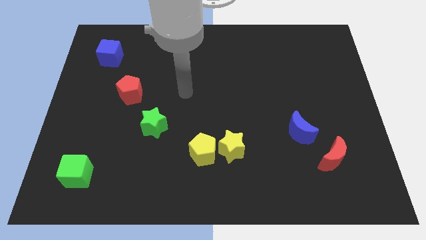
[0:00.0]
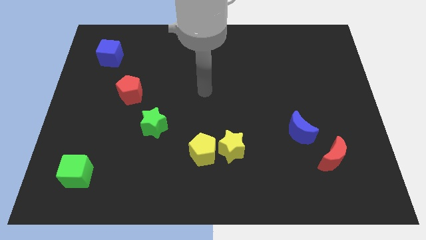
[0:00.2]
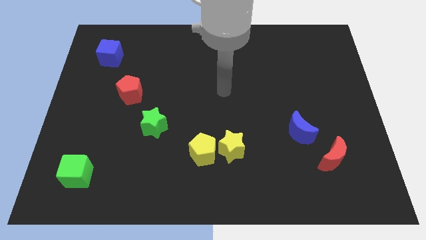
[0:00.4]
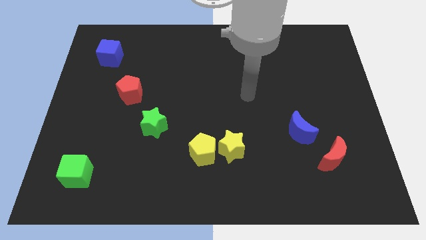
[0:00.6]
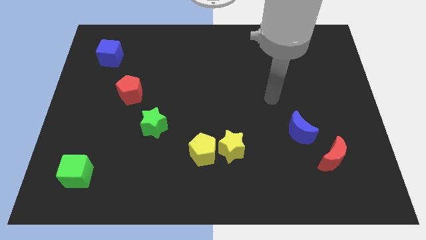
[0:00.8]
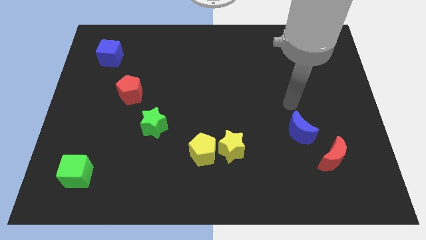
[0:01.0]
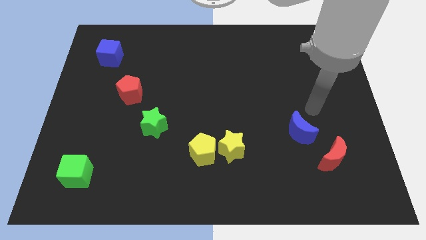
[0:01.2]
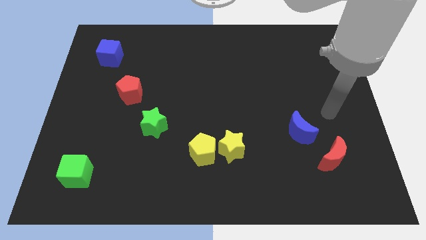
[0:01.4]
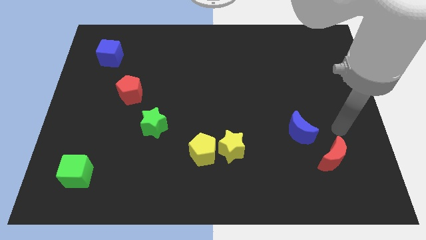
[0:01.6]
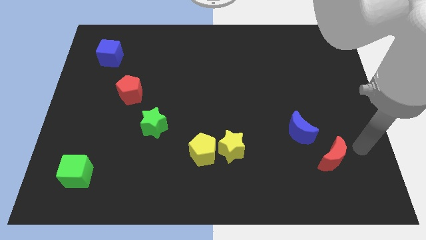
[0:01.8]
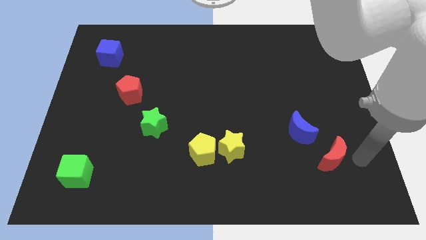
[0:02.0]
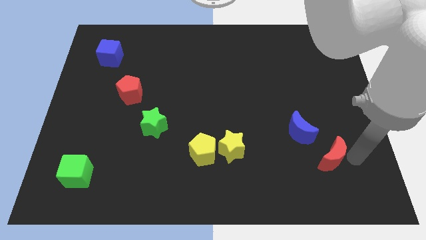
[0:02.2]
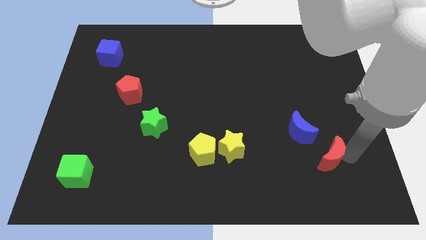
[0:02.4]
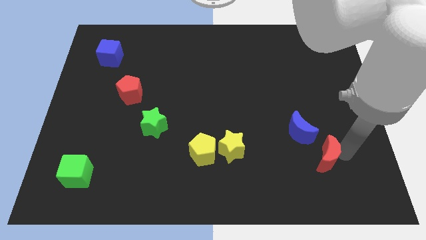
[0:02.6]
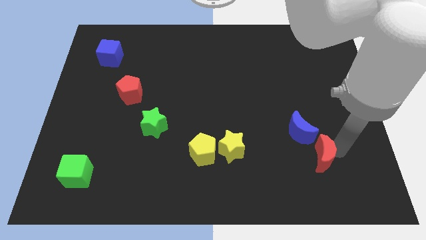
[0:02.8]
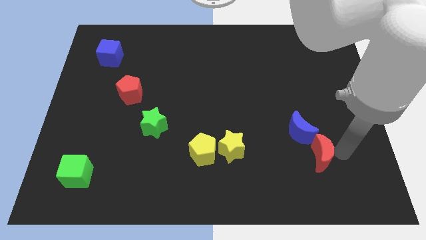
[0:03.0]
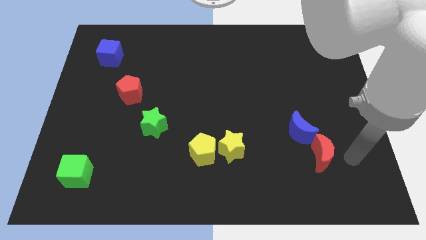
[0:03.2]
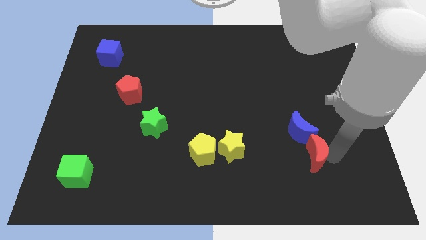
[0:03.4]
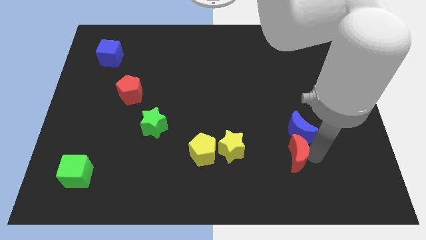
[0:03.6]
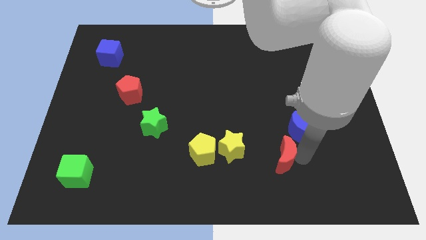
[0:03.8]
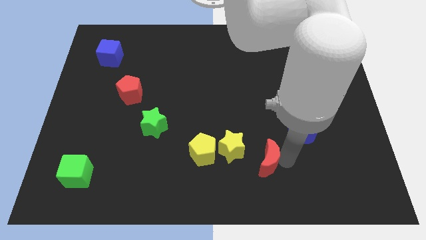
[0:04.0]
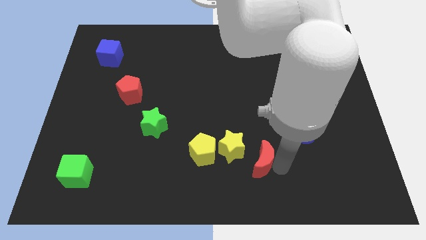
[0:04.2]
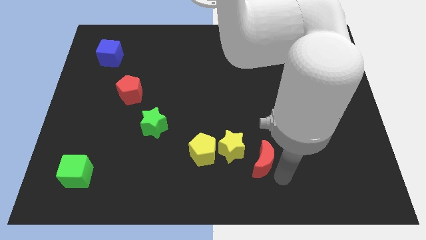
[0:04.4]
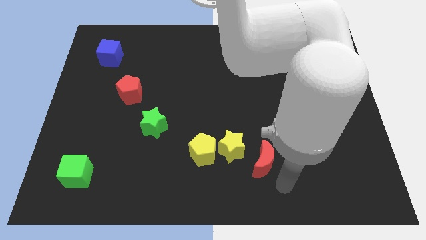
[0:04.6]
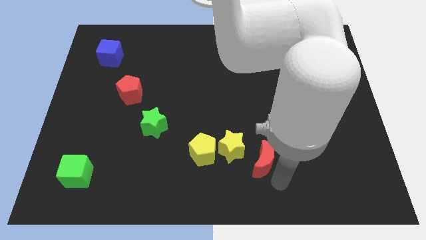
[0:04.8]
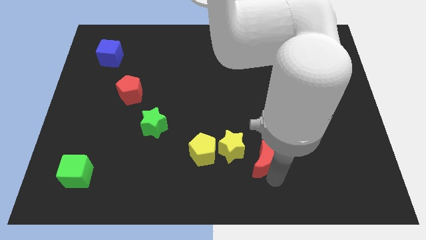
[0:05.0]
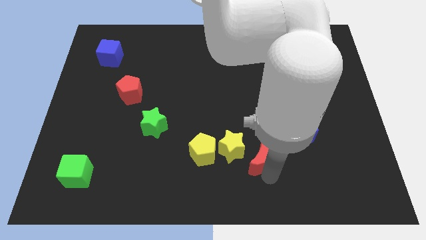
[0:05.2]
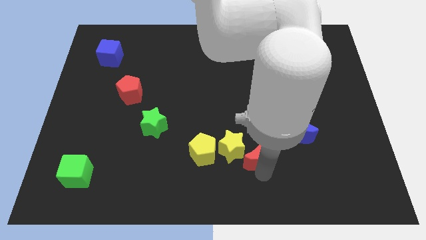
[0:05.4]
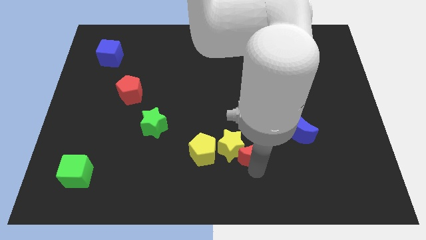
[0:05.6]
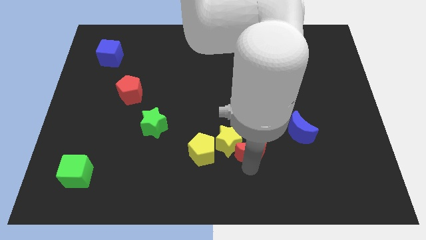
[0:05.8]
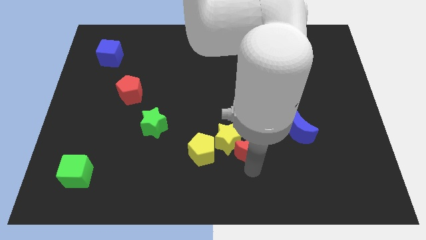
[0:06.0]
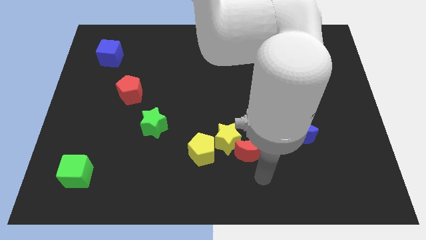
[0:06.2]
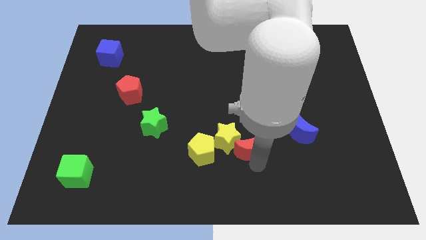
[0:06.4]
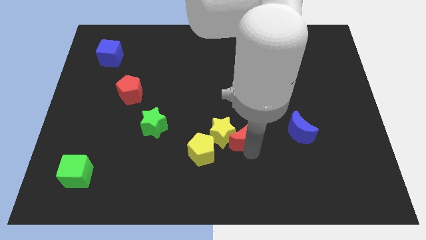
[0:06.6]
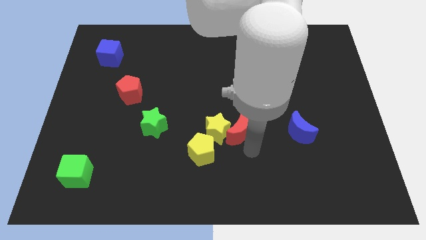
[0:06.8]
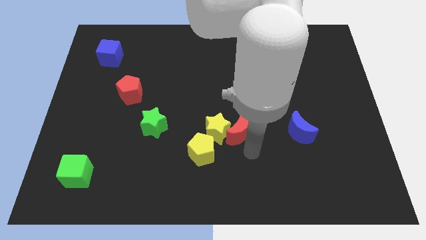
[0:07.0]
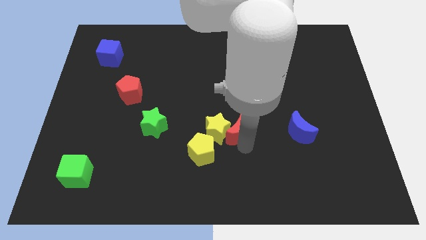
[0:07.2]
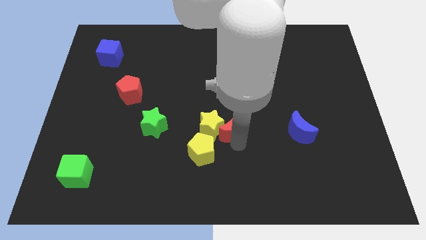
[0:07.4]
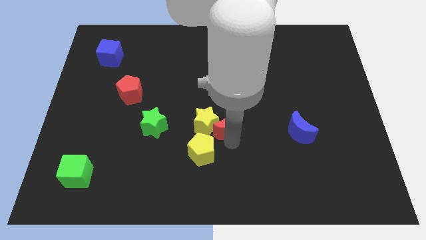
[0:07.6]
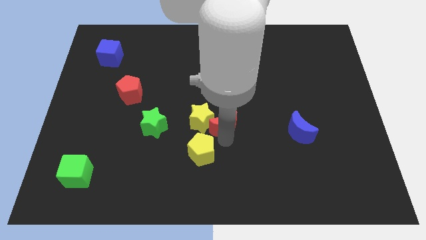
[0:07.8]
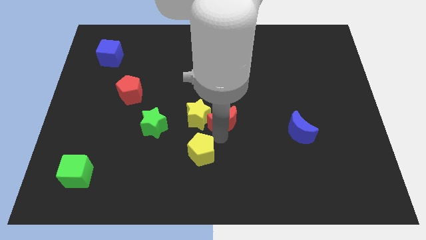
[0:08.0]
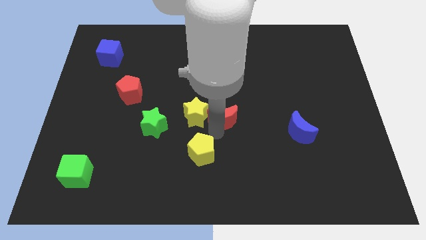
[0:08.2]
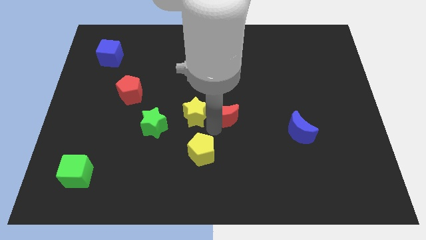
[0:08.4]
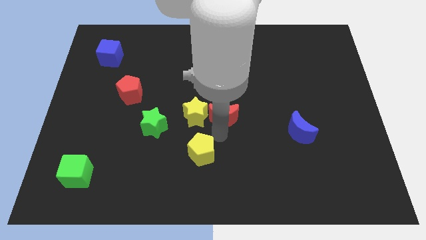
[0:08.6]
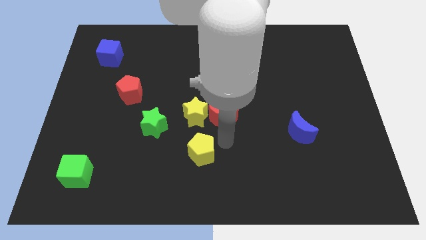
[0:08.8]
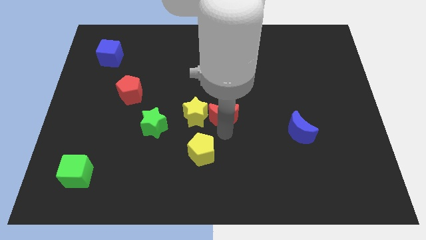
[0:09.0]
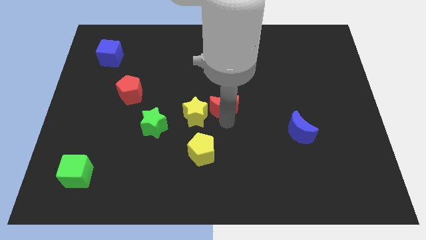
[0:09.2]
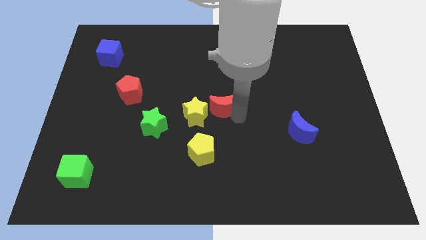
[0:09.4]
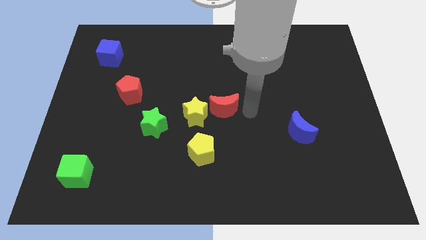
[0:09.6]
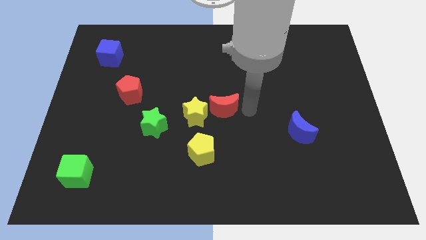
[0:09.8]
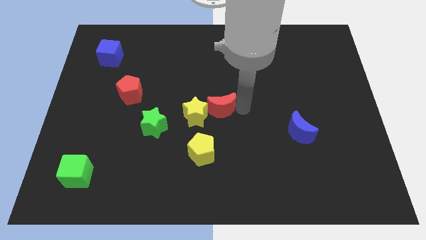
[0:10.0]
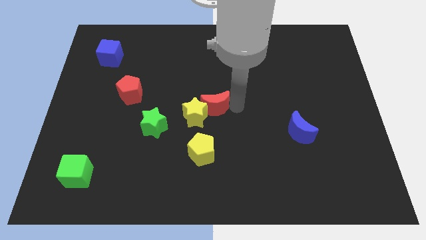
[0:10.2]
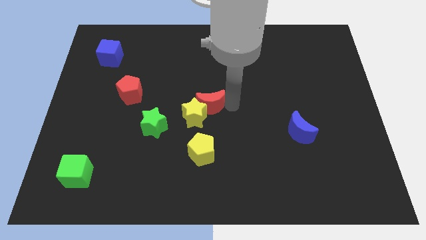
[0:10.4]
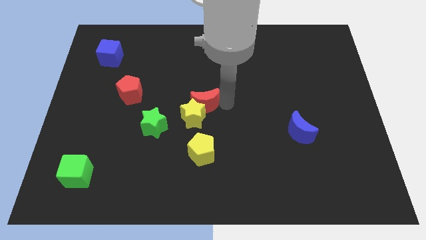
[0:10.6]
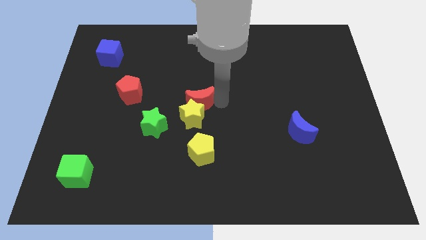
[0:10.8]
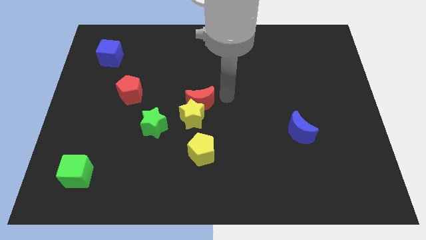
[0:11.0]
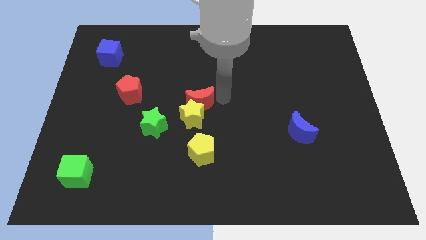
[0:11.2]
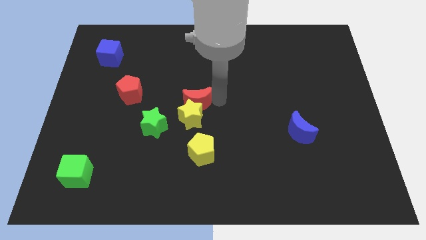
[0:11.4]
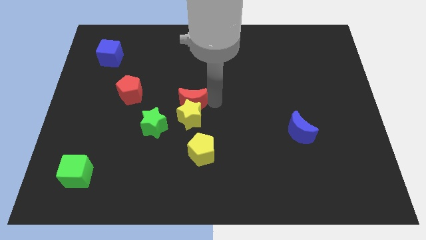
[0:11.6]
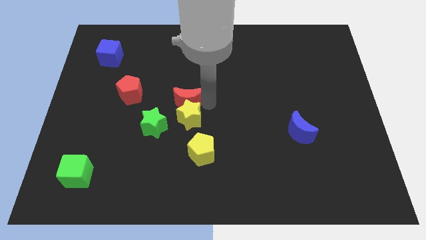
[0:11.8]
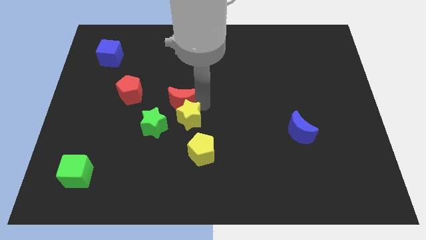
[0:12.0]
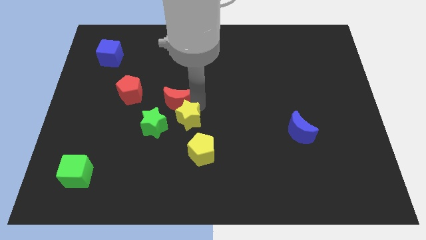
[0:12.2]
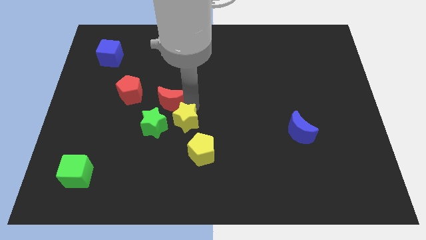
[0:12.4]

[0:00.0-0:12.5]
move the red moon to the bottom right of the red pentagon

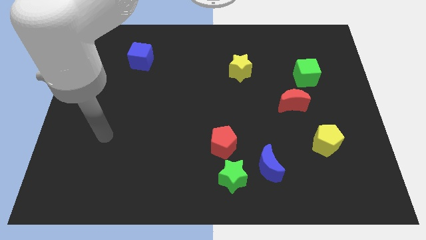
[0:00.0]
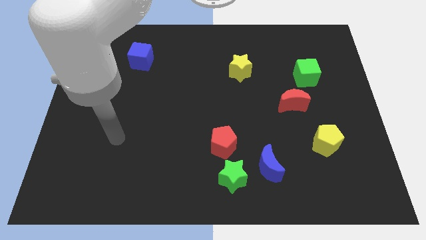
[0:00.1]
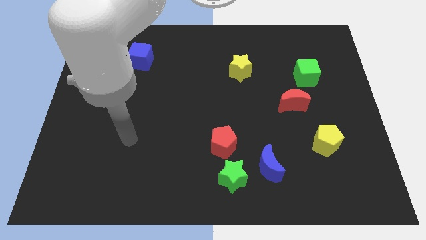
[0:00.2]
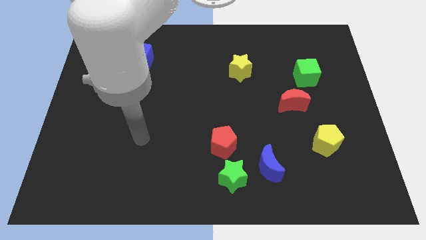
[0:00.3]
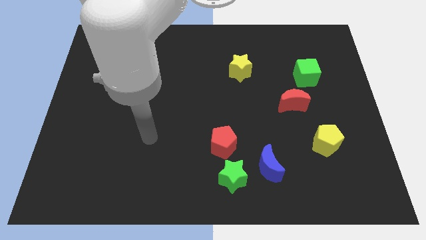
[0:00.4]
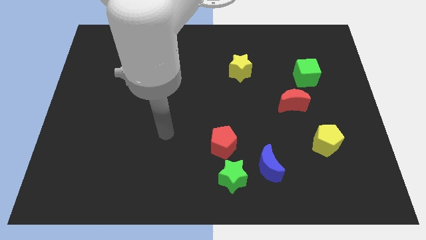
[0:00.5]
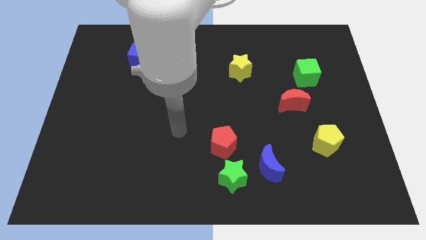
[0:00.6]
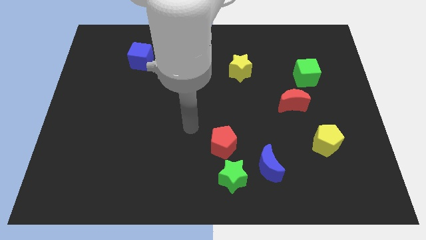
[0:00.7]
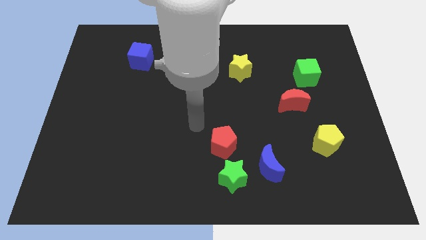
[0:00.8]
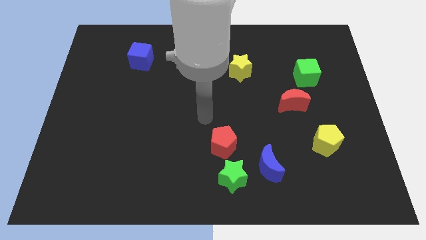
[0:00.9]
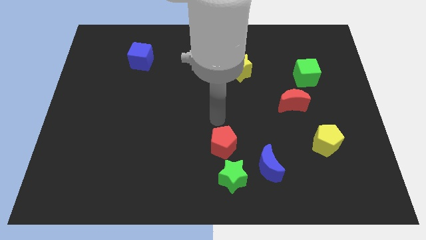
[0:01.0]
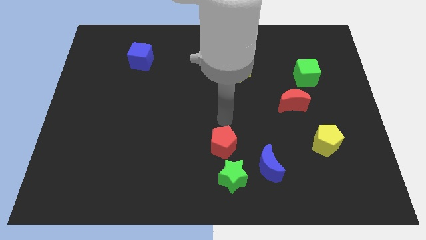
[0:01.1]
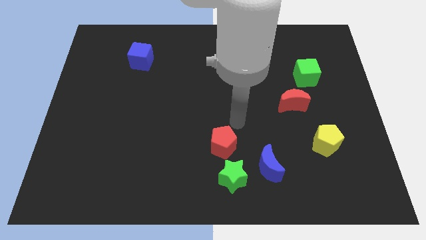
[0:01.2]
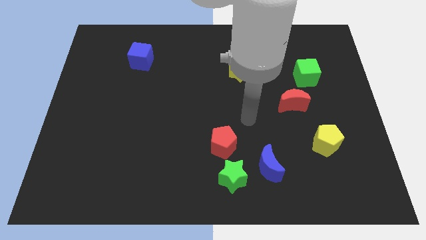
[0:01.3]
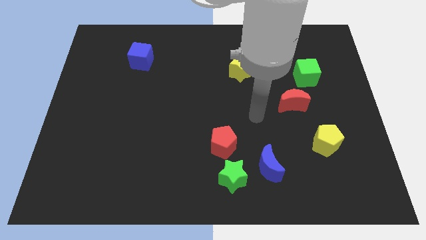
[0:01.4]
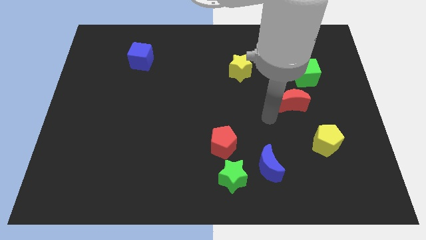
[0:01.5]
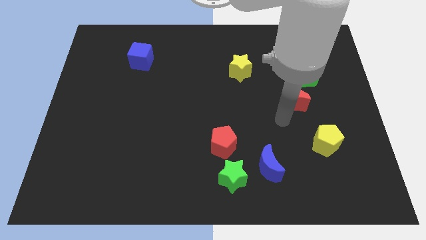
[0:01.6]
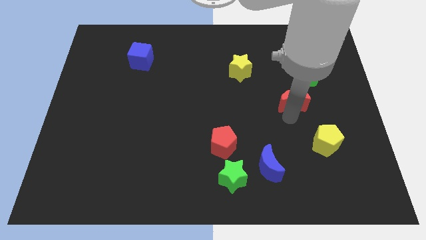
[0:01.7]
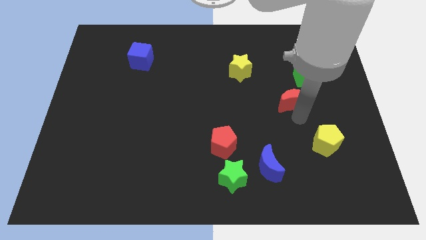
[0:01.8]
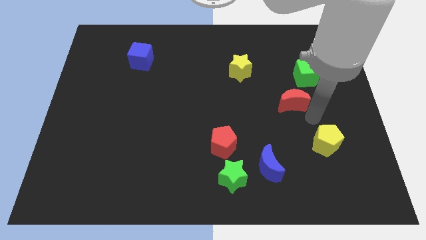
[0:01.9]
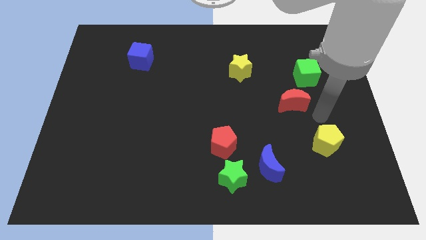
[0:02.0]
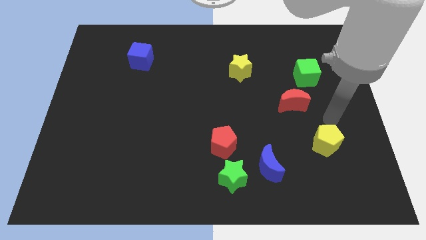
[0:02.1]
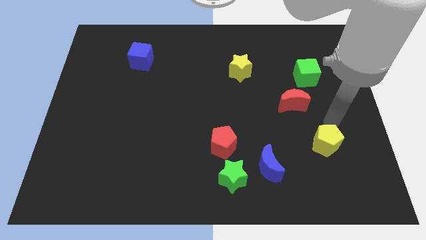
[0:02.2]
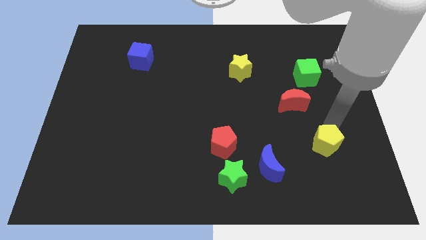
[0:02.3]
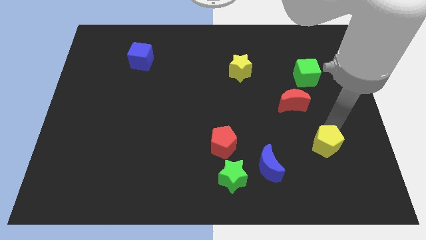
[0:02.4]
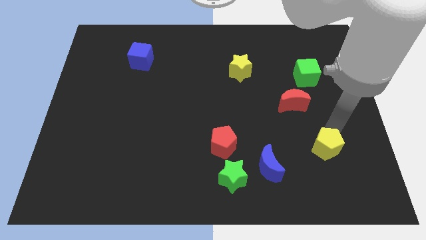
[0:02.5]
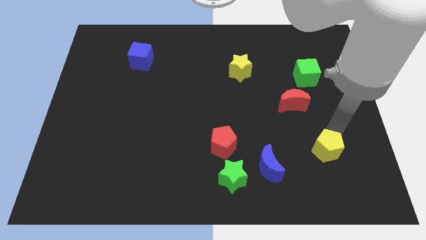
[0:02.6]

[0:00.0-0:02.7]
push the yellow pentagon to the right side of the blue moon
